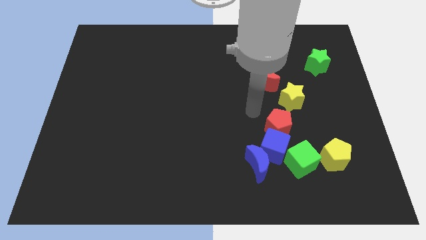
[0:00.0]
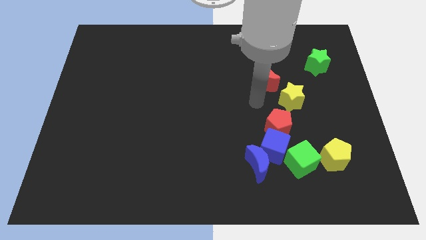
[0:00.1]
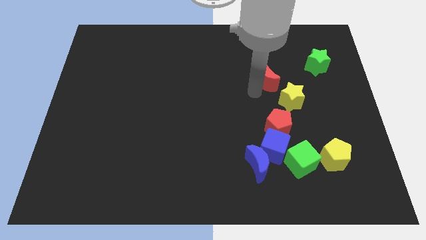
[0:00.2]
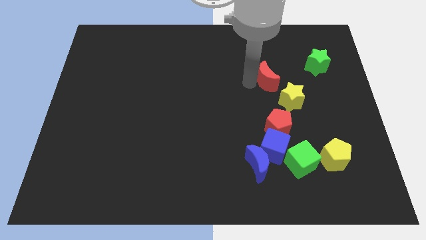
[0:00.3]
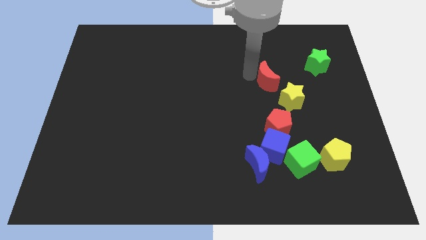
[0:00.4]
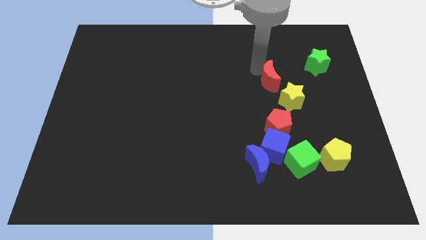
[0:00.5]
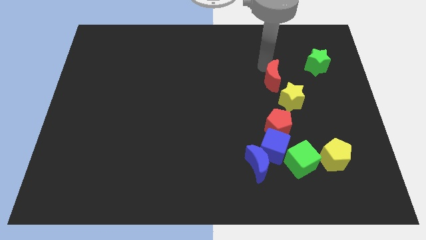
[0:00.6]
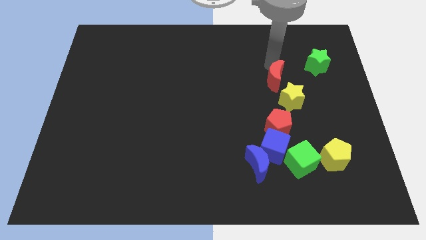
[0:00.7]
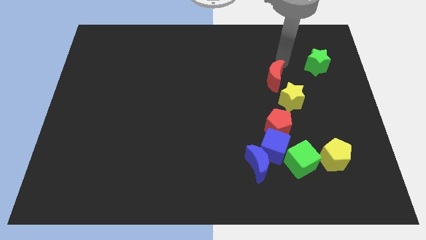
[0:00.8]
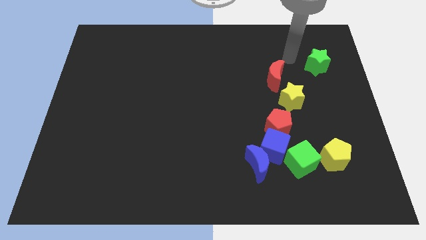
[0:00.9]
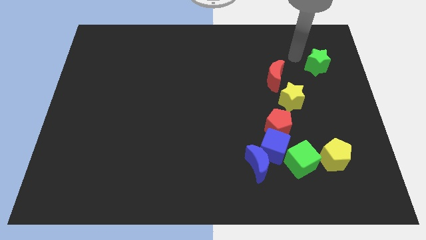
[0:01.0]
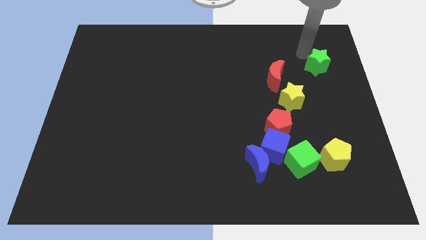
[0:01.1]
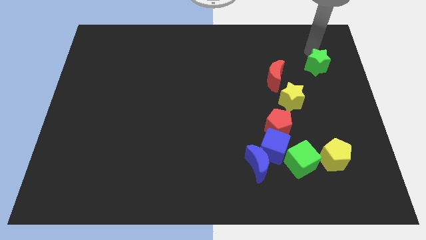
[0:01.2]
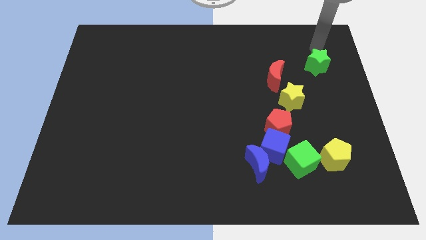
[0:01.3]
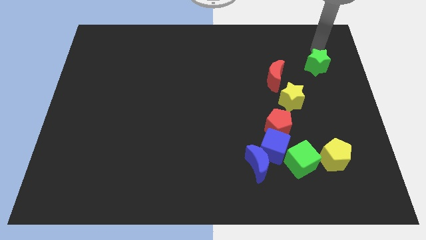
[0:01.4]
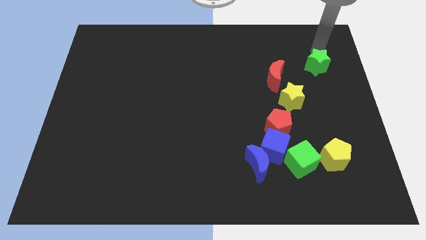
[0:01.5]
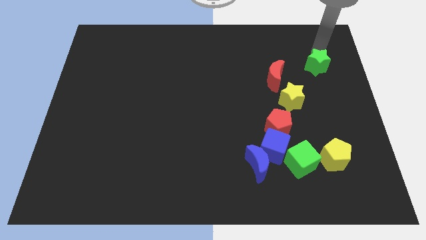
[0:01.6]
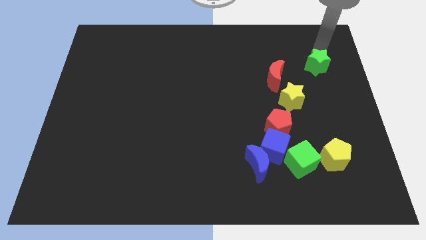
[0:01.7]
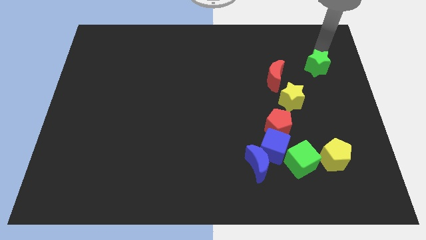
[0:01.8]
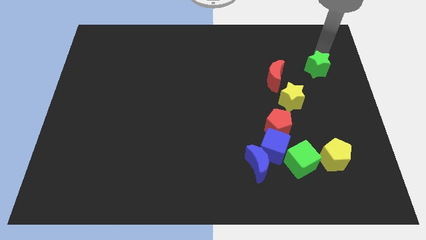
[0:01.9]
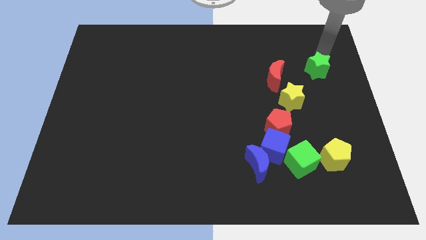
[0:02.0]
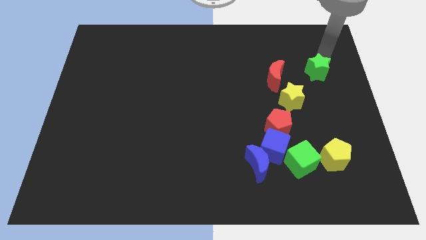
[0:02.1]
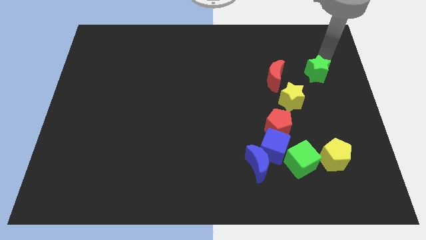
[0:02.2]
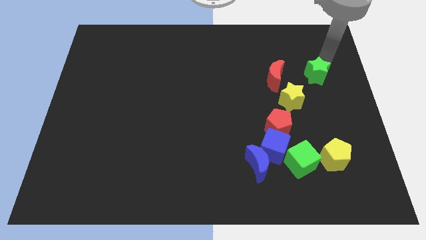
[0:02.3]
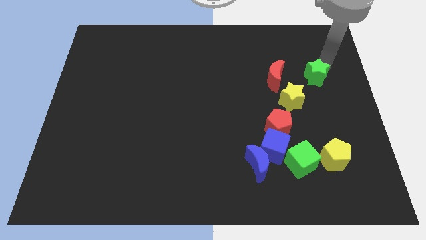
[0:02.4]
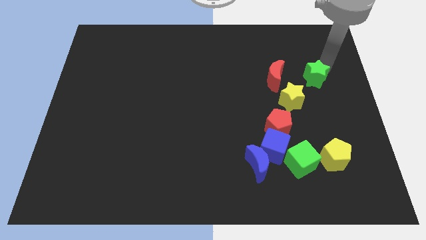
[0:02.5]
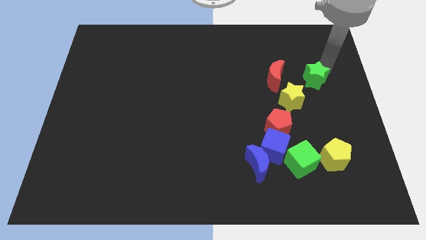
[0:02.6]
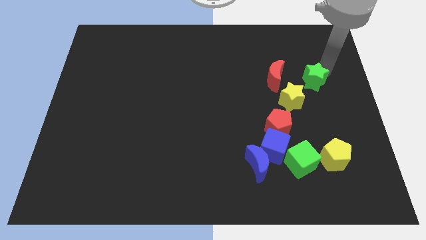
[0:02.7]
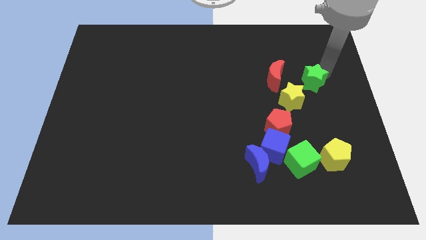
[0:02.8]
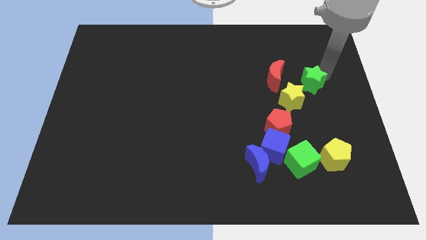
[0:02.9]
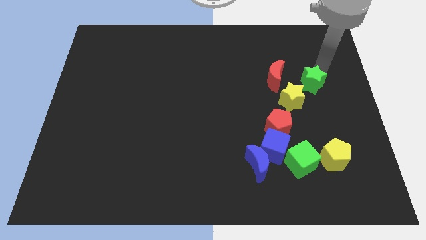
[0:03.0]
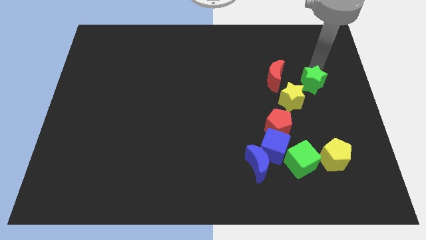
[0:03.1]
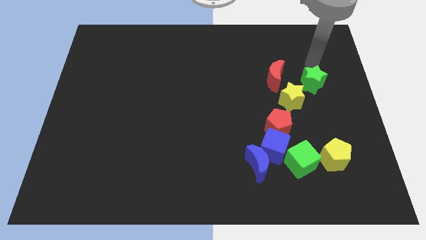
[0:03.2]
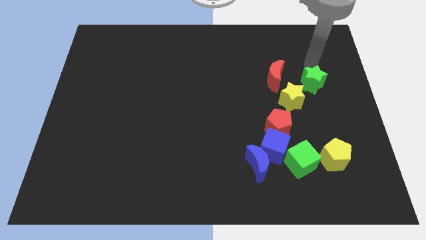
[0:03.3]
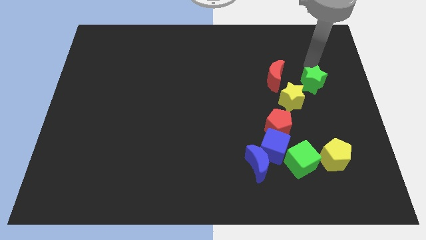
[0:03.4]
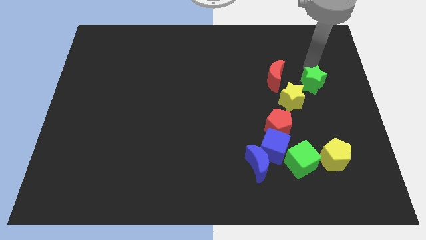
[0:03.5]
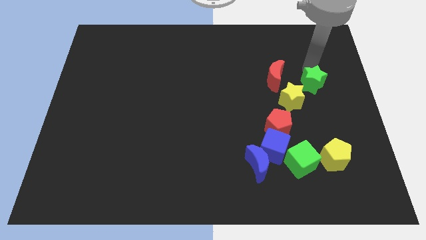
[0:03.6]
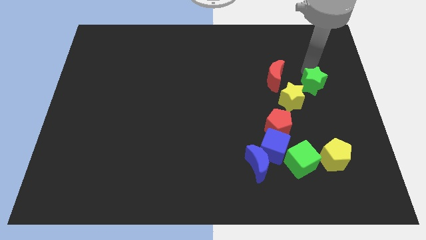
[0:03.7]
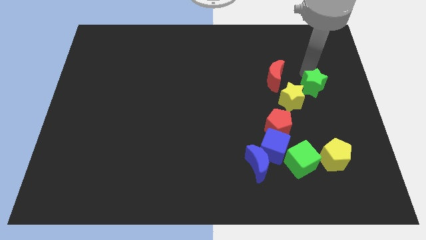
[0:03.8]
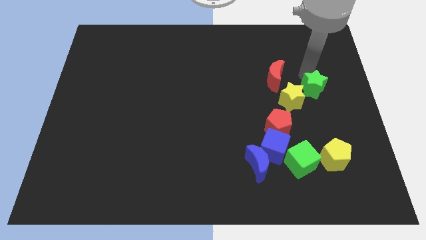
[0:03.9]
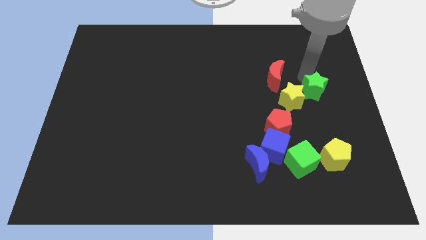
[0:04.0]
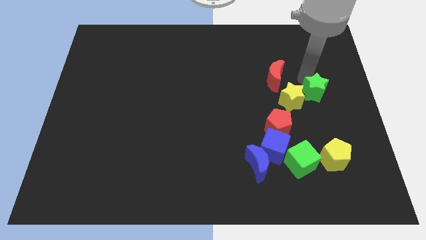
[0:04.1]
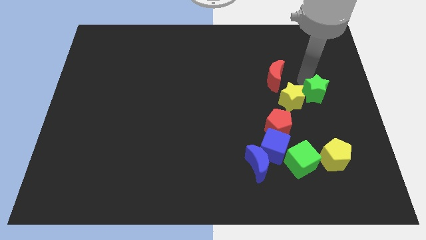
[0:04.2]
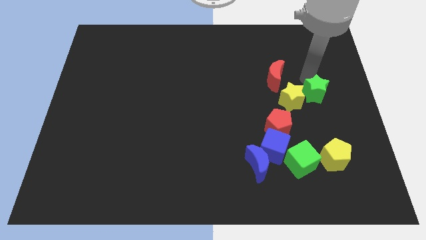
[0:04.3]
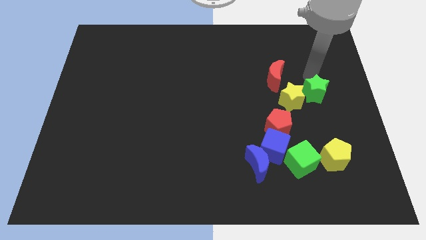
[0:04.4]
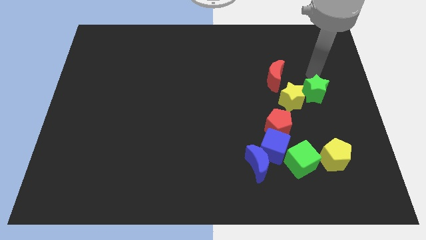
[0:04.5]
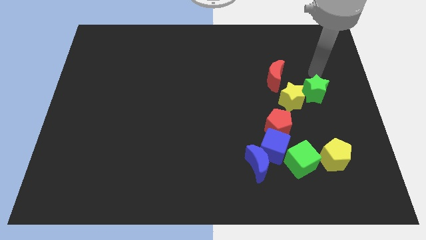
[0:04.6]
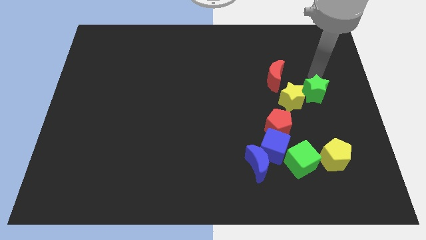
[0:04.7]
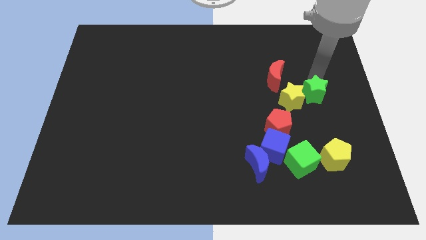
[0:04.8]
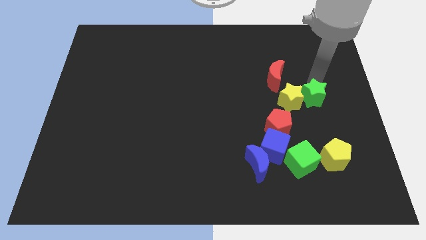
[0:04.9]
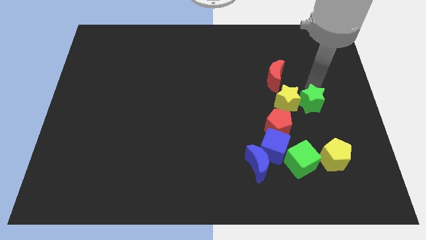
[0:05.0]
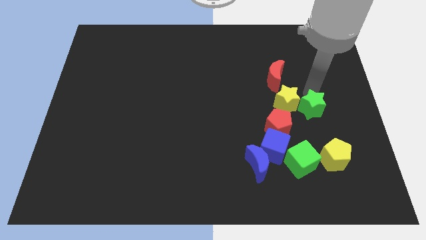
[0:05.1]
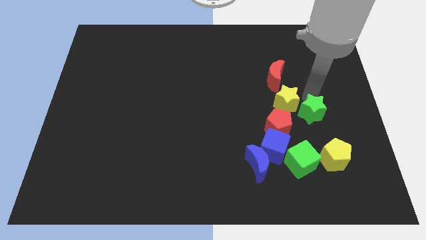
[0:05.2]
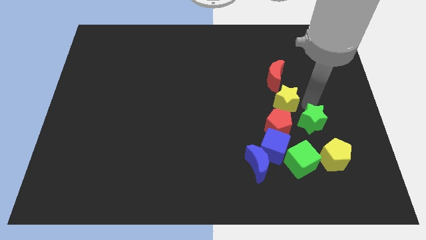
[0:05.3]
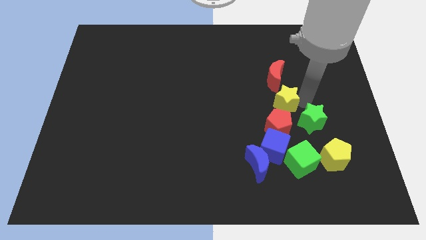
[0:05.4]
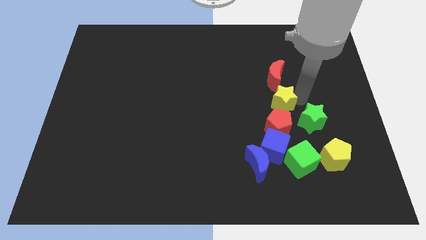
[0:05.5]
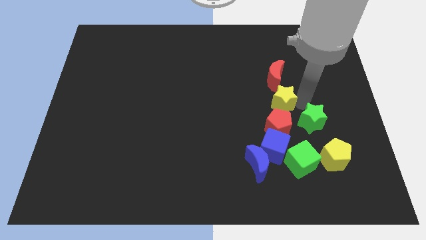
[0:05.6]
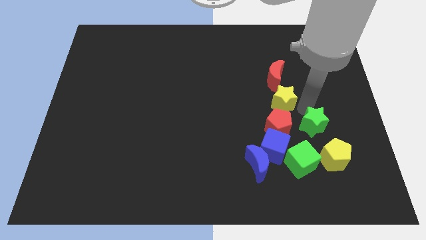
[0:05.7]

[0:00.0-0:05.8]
push the green star diagonally up and to the right of the green cube

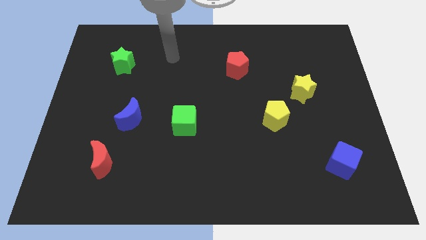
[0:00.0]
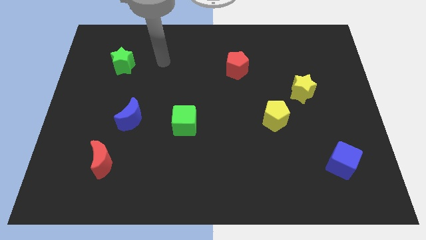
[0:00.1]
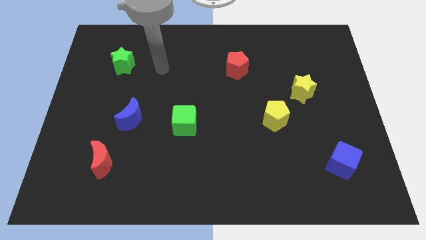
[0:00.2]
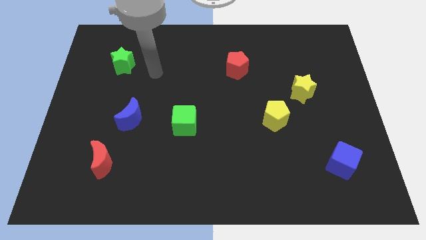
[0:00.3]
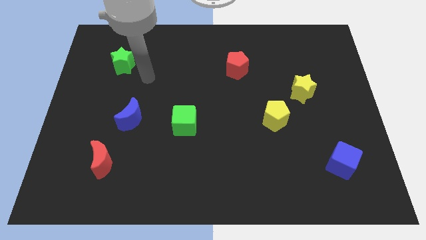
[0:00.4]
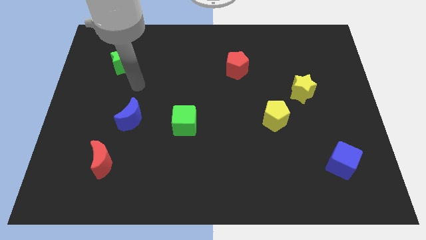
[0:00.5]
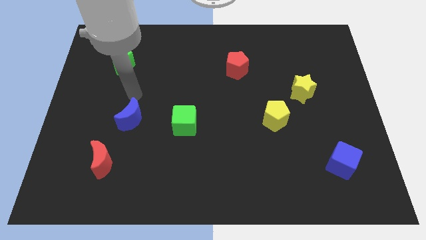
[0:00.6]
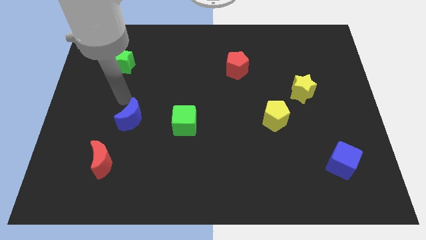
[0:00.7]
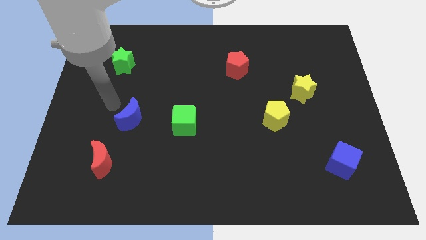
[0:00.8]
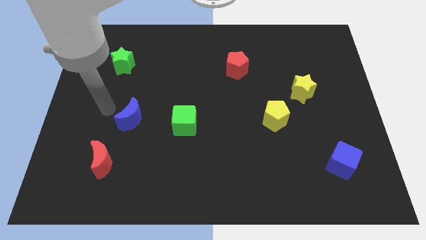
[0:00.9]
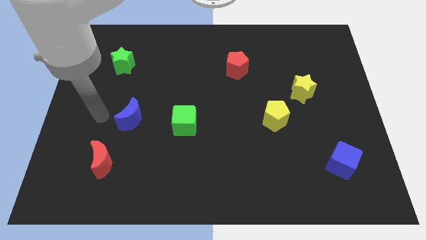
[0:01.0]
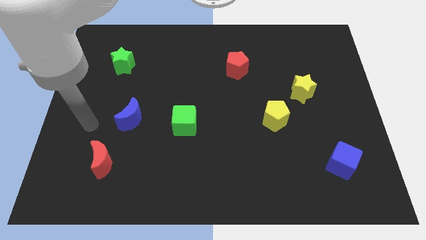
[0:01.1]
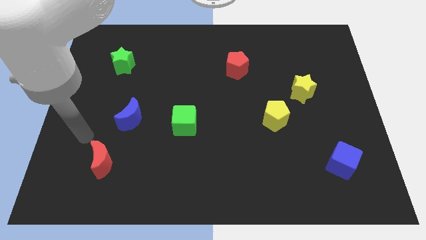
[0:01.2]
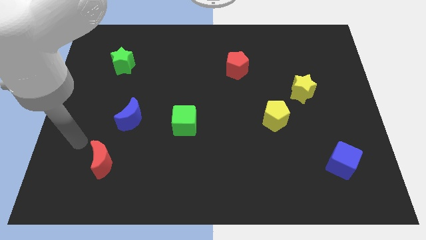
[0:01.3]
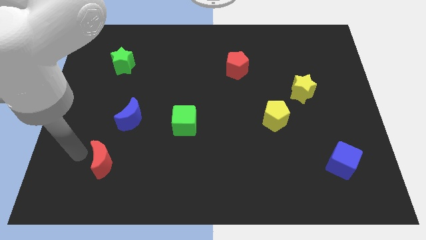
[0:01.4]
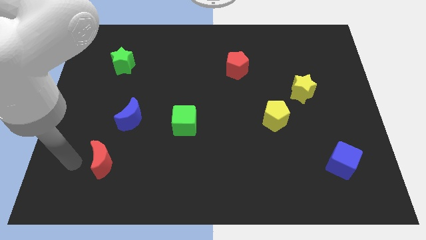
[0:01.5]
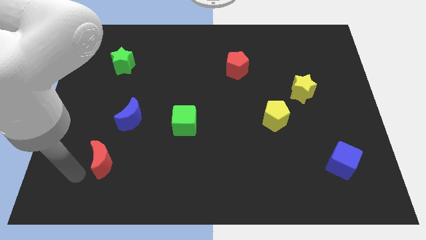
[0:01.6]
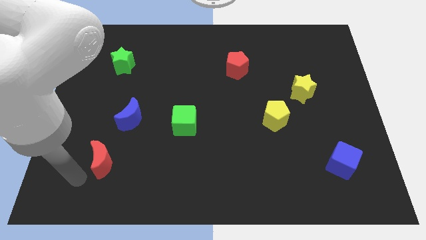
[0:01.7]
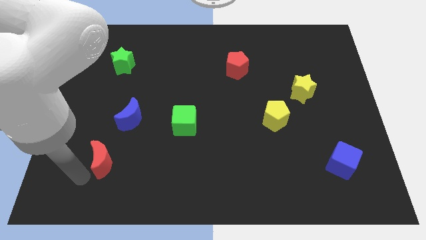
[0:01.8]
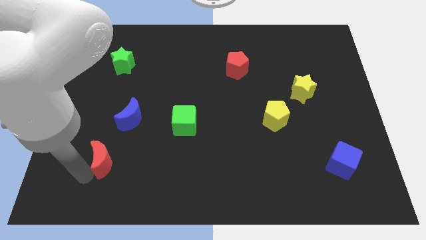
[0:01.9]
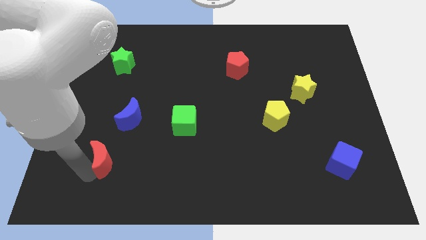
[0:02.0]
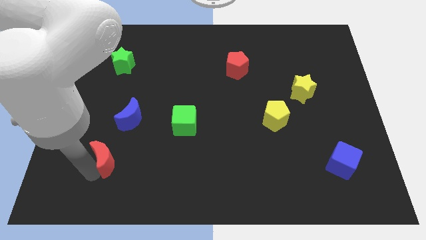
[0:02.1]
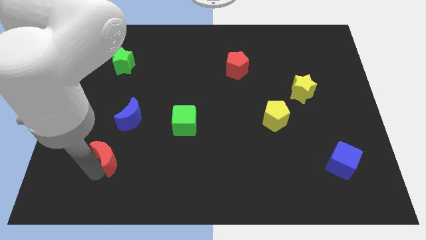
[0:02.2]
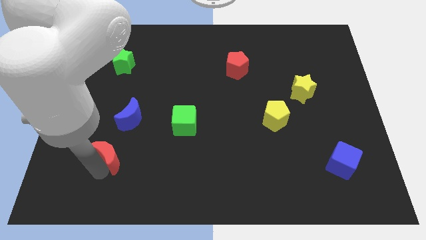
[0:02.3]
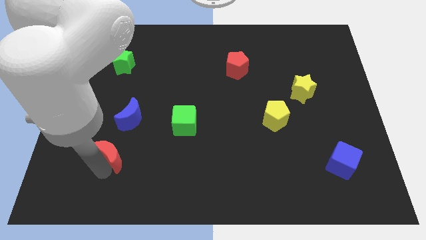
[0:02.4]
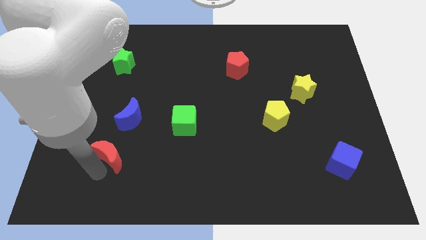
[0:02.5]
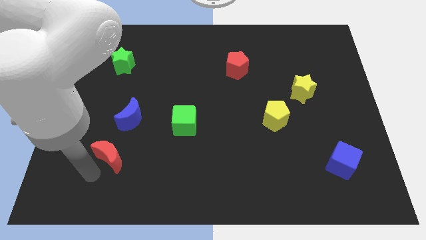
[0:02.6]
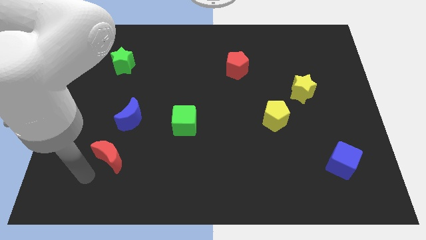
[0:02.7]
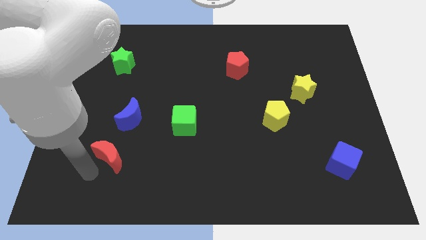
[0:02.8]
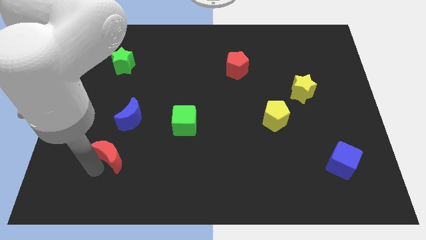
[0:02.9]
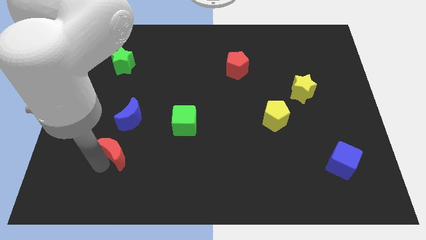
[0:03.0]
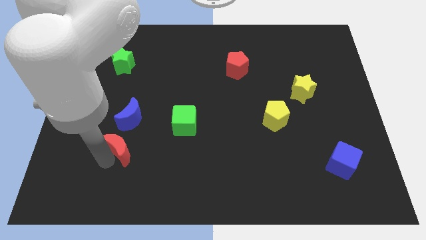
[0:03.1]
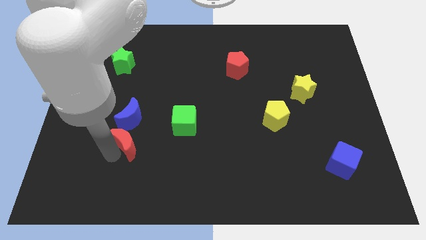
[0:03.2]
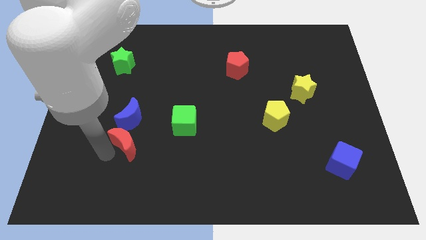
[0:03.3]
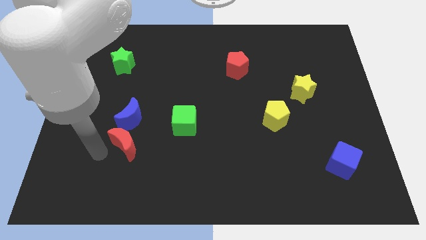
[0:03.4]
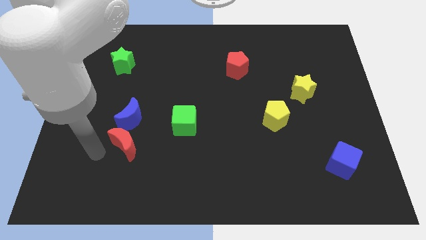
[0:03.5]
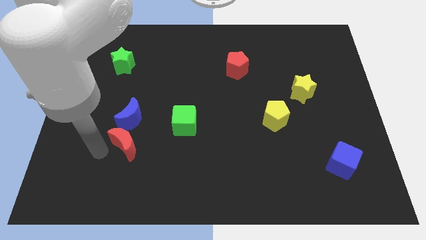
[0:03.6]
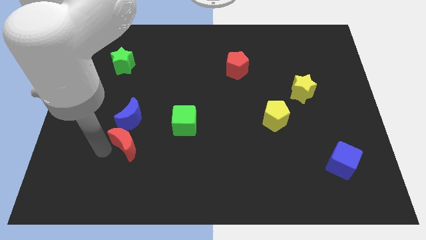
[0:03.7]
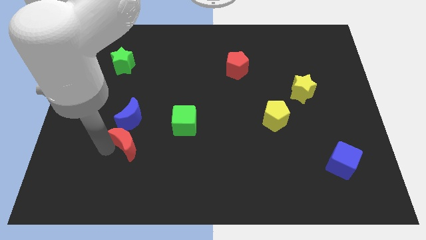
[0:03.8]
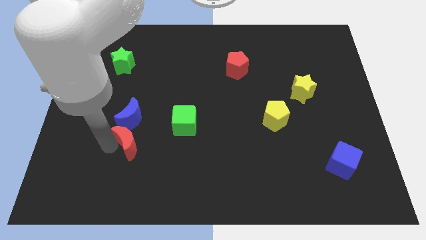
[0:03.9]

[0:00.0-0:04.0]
put the red moon to the bottom right side of the blue moon
